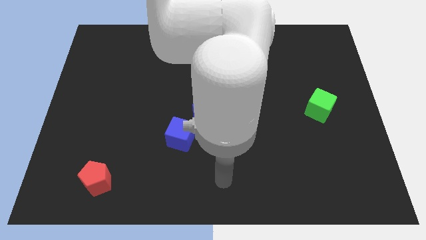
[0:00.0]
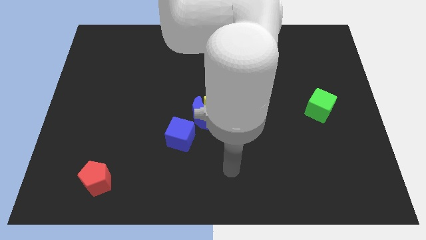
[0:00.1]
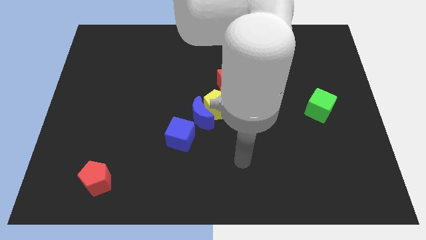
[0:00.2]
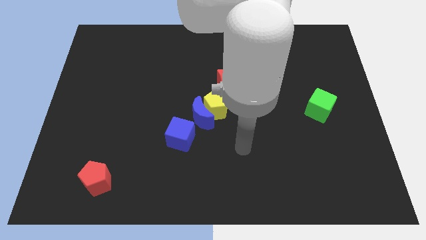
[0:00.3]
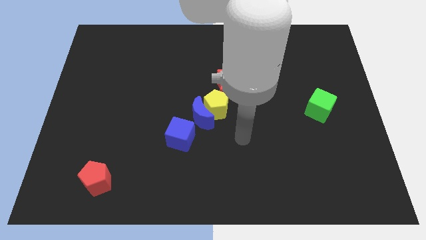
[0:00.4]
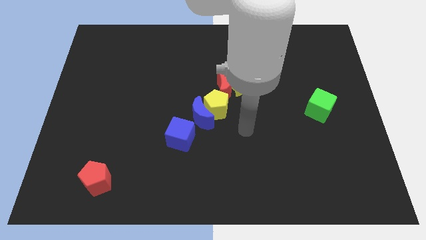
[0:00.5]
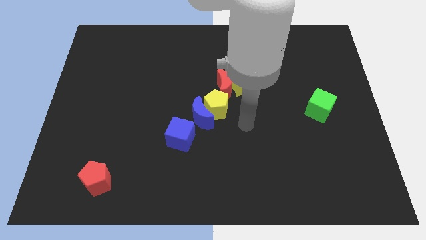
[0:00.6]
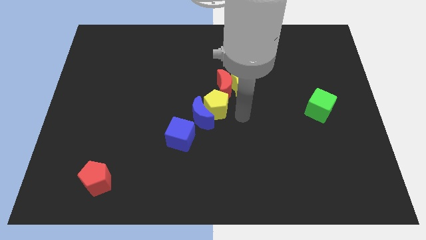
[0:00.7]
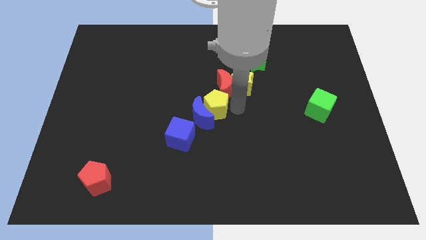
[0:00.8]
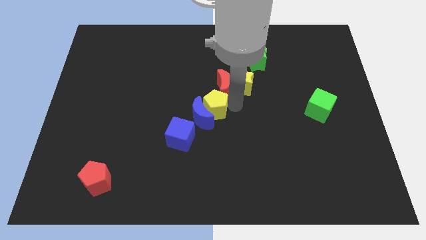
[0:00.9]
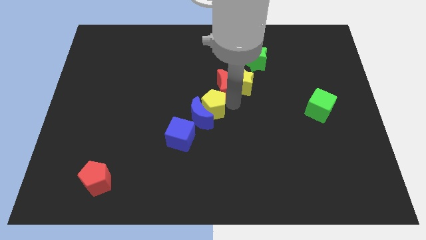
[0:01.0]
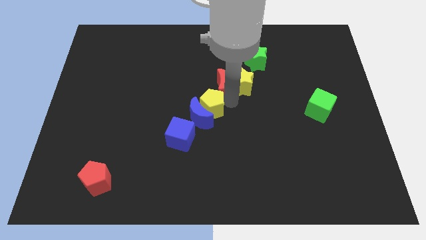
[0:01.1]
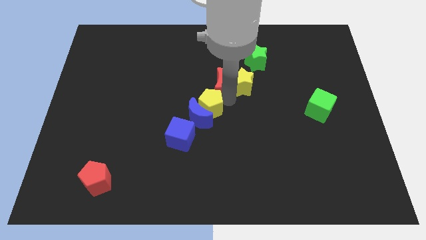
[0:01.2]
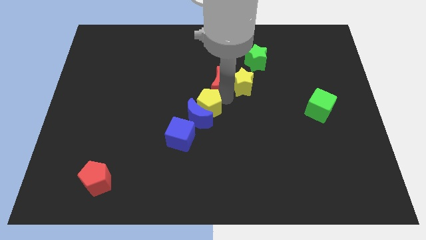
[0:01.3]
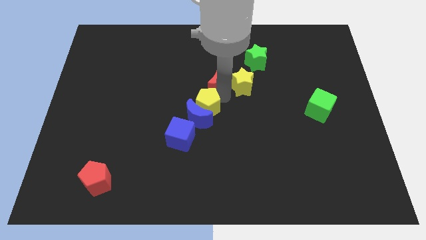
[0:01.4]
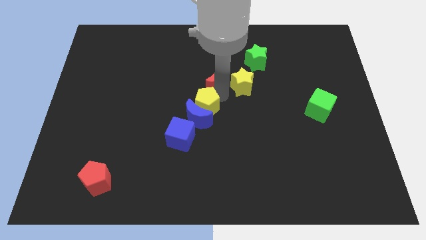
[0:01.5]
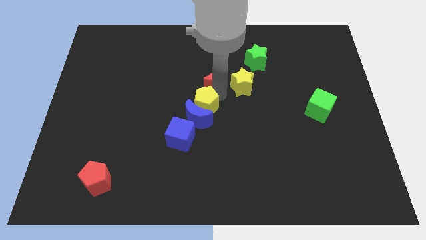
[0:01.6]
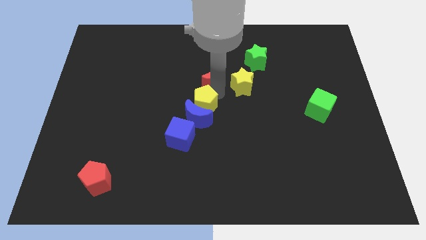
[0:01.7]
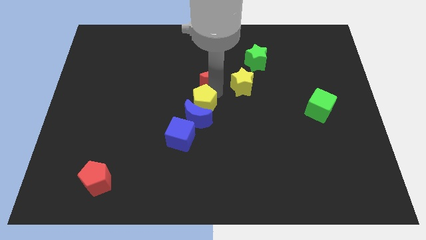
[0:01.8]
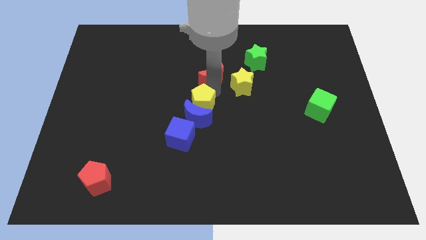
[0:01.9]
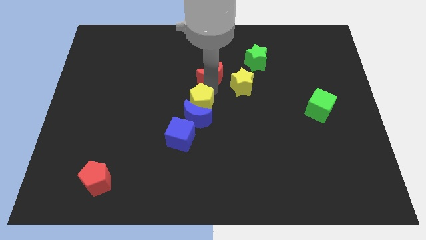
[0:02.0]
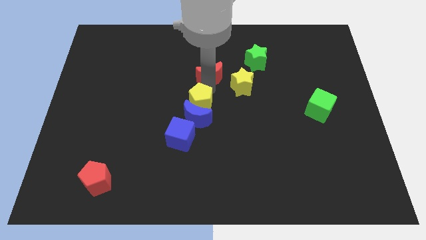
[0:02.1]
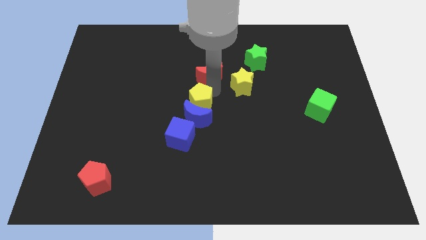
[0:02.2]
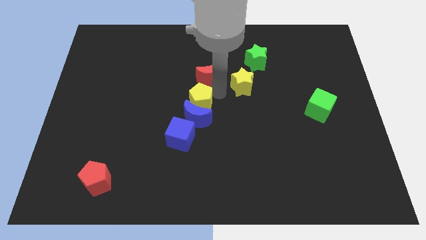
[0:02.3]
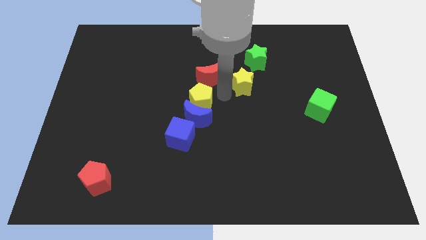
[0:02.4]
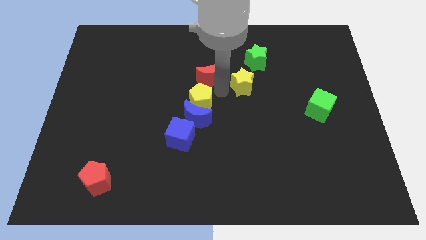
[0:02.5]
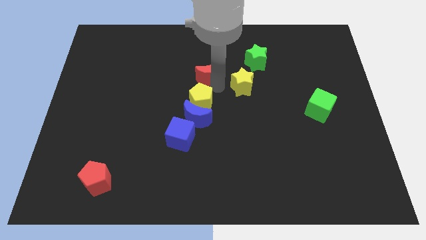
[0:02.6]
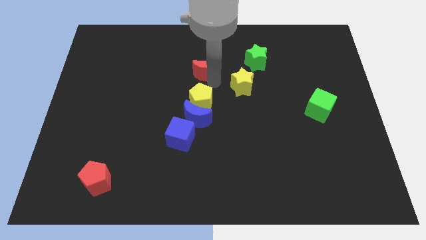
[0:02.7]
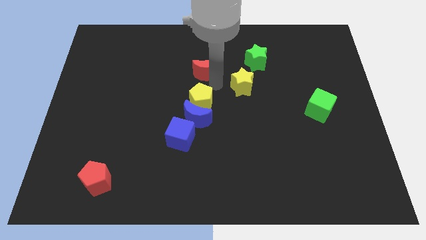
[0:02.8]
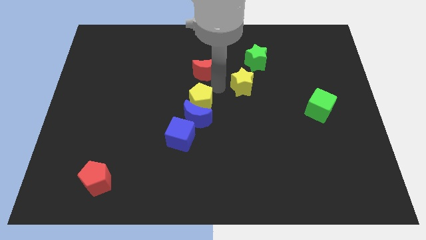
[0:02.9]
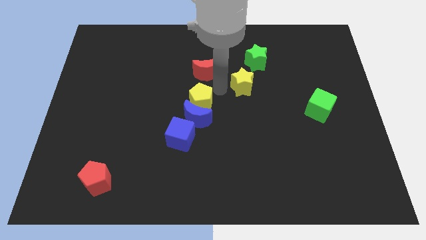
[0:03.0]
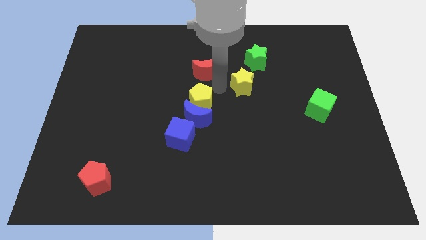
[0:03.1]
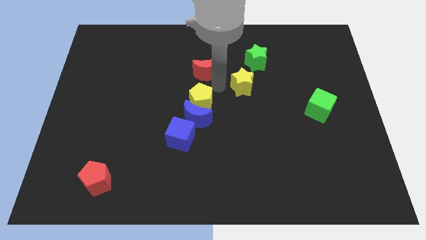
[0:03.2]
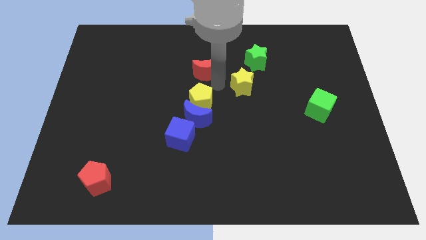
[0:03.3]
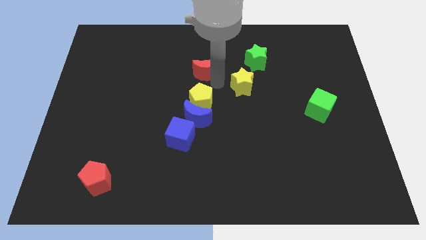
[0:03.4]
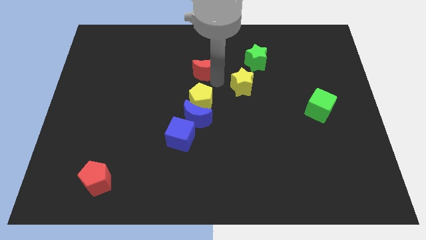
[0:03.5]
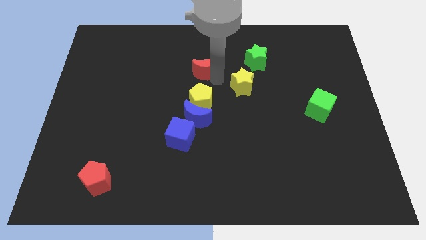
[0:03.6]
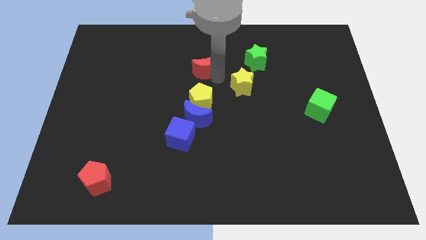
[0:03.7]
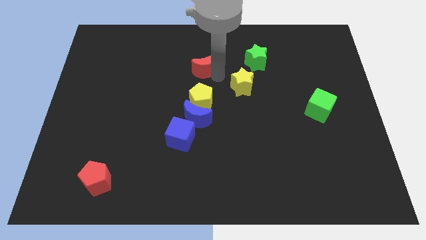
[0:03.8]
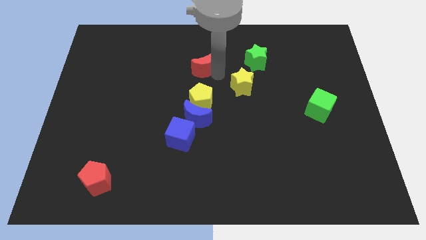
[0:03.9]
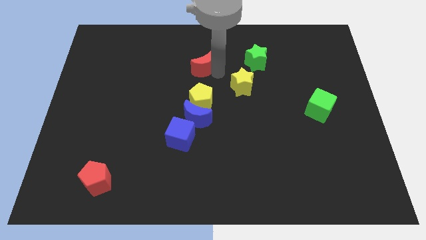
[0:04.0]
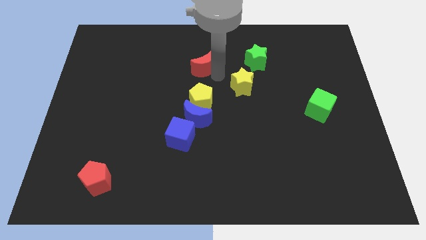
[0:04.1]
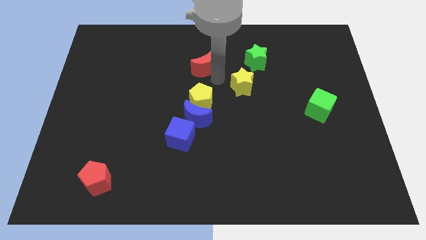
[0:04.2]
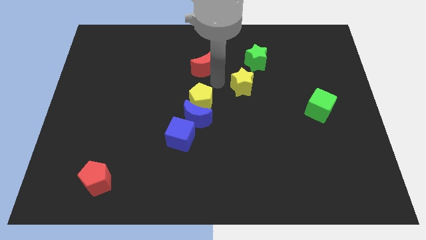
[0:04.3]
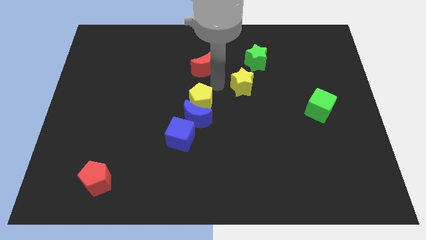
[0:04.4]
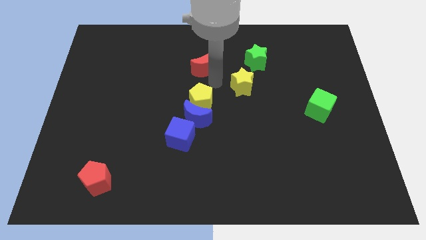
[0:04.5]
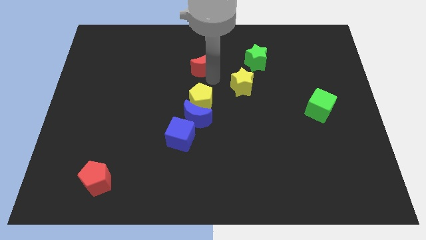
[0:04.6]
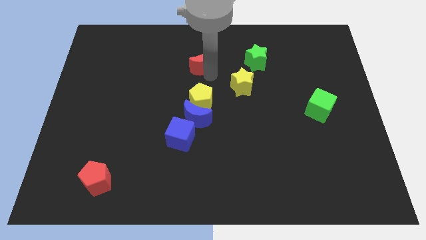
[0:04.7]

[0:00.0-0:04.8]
separate the red moon from the yellow star and yellow pentagon

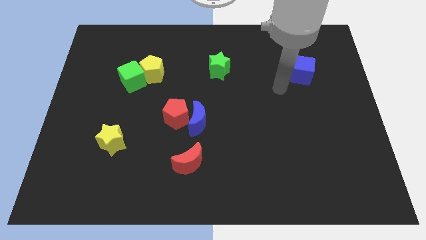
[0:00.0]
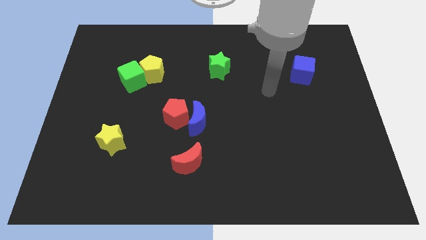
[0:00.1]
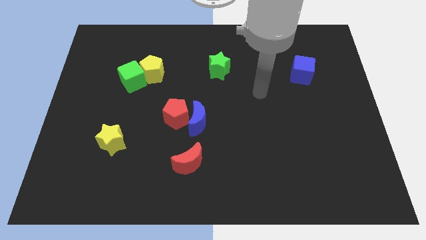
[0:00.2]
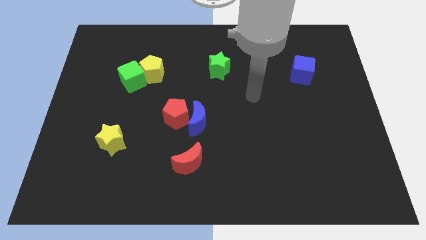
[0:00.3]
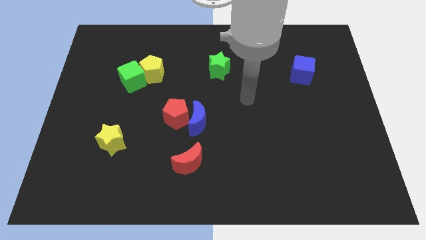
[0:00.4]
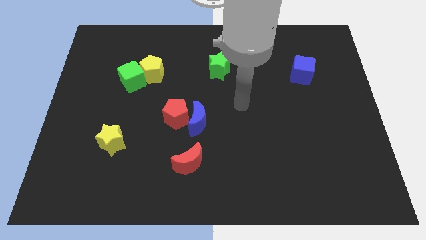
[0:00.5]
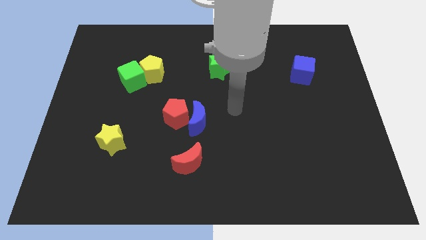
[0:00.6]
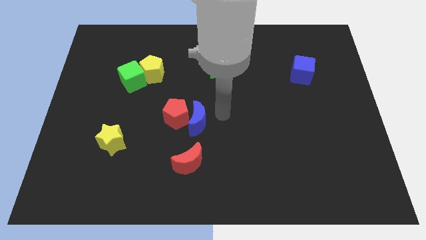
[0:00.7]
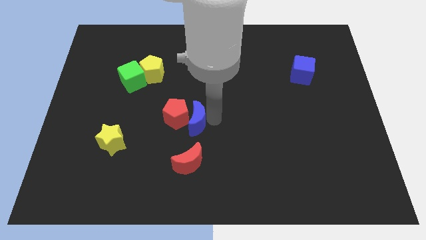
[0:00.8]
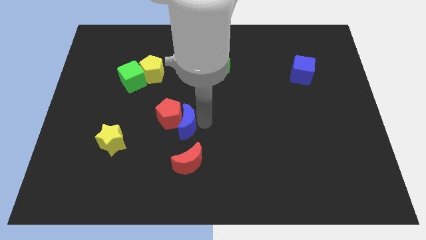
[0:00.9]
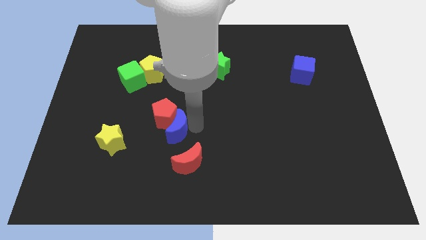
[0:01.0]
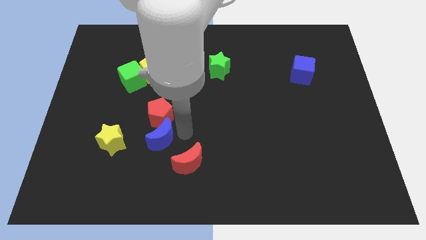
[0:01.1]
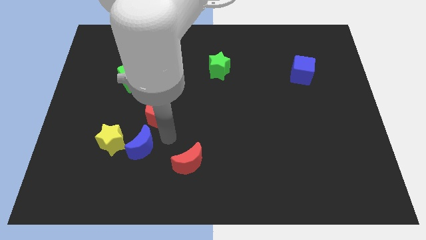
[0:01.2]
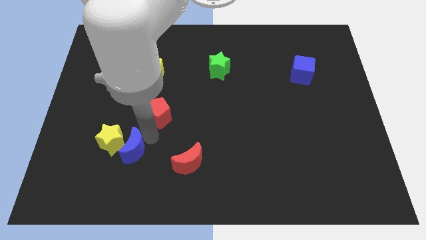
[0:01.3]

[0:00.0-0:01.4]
separate the red pentagon from the blue moon

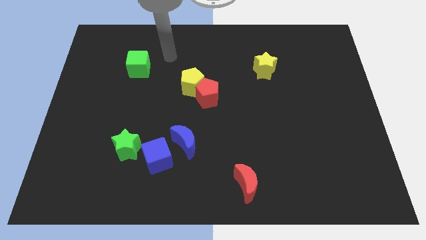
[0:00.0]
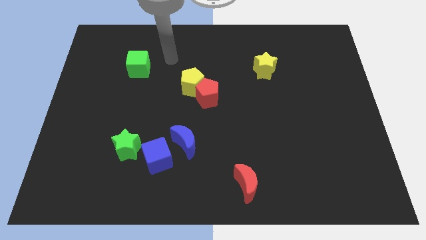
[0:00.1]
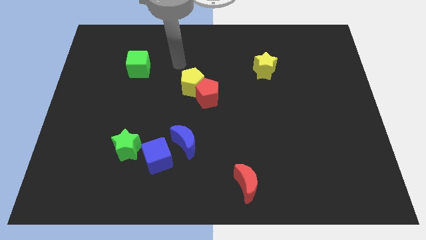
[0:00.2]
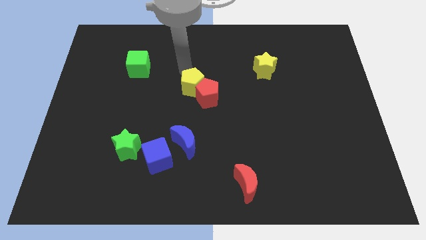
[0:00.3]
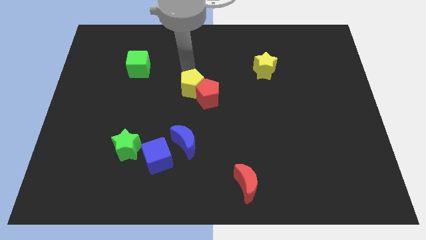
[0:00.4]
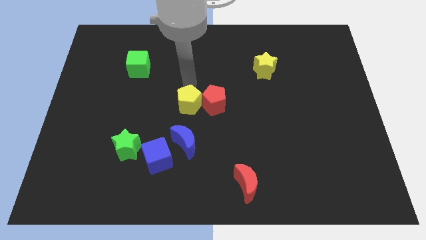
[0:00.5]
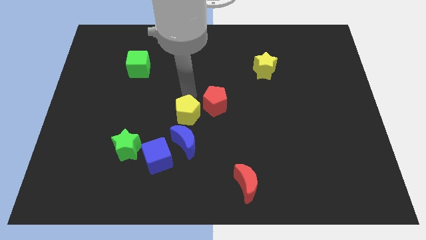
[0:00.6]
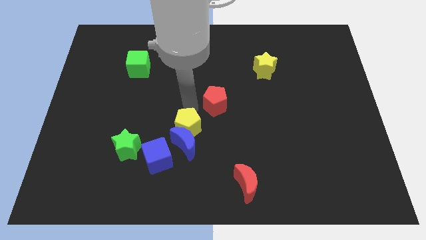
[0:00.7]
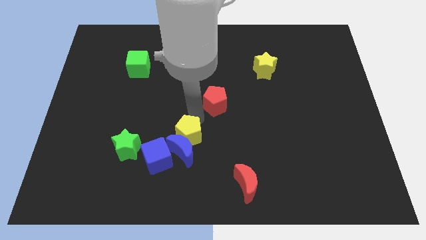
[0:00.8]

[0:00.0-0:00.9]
pull the red pentagon apart from the yellow pentagon

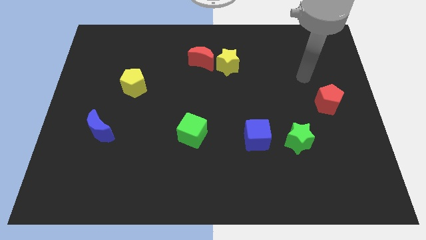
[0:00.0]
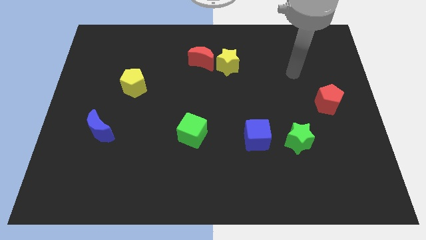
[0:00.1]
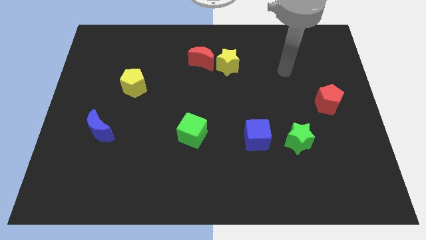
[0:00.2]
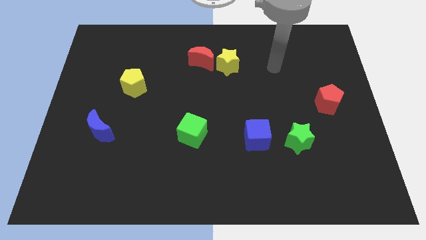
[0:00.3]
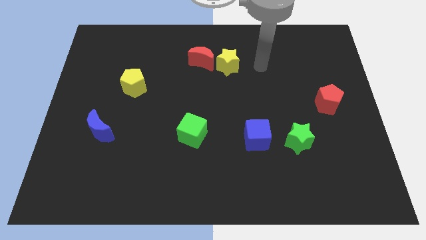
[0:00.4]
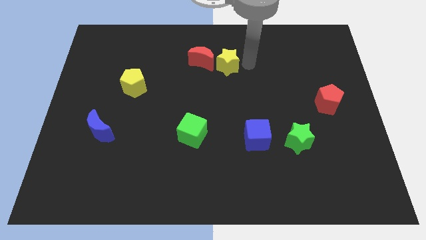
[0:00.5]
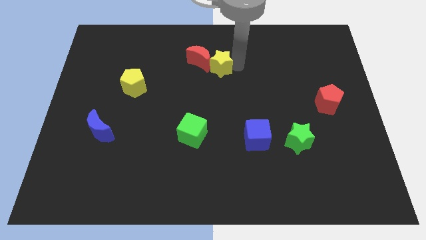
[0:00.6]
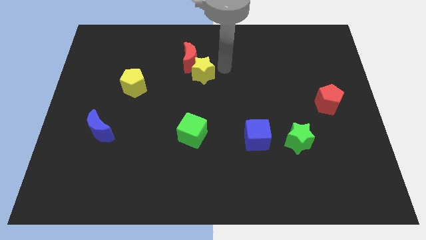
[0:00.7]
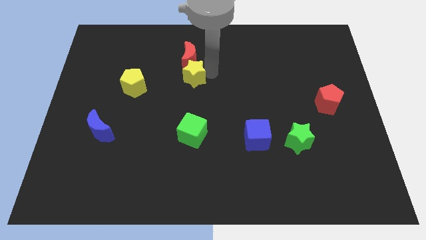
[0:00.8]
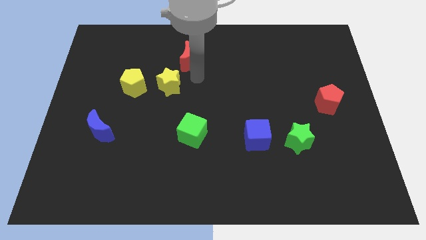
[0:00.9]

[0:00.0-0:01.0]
move the red moon away from the yellow star

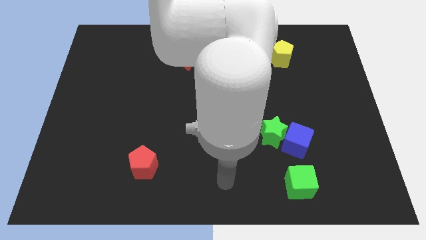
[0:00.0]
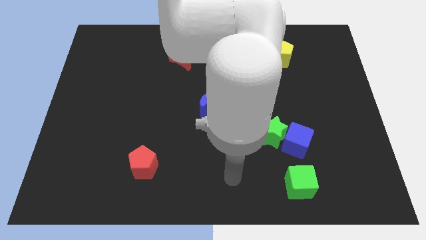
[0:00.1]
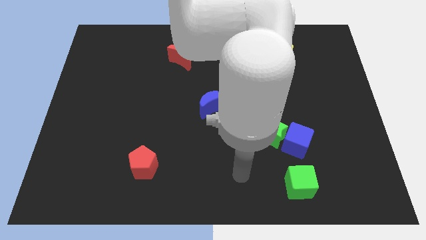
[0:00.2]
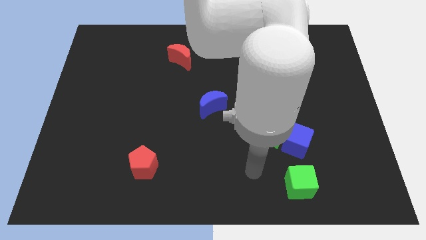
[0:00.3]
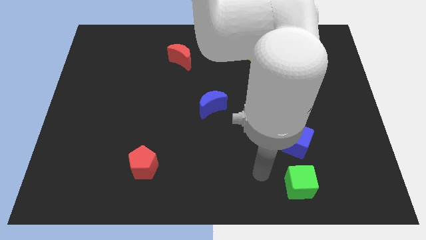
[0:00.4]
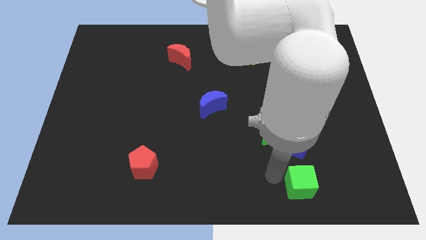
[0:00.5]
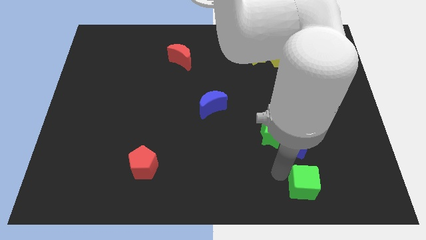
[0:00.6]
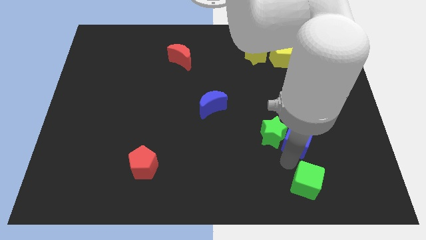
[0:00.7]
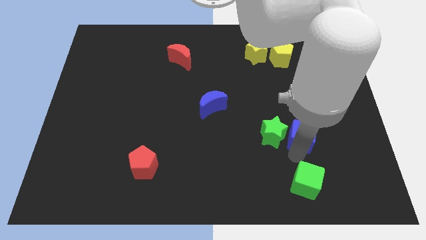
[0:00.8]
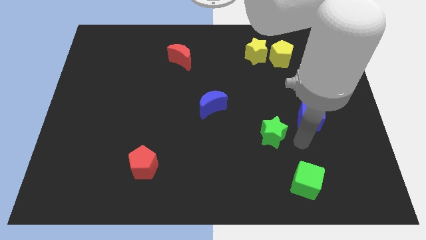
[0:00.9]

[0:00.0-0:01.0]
pull the green star apart from the blue cube
